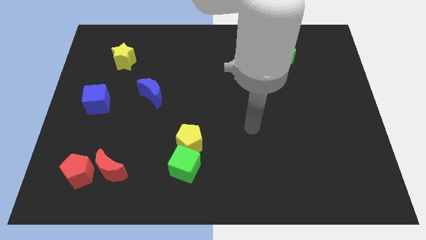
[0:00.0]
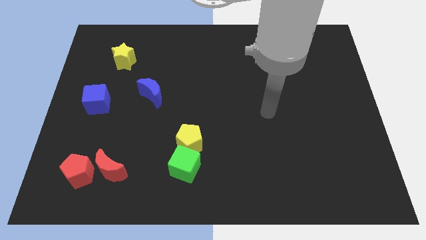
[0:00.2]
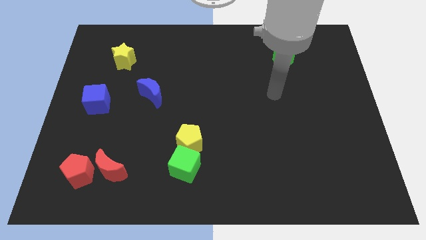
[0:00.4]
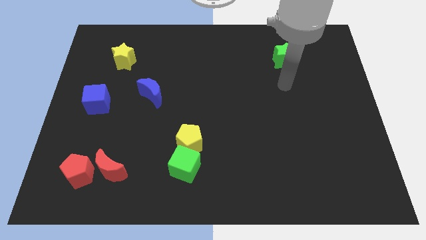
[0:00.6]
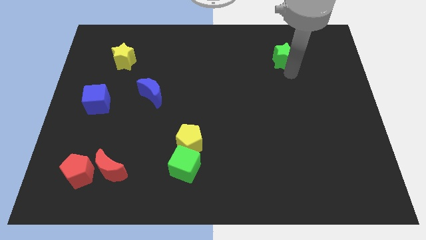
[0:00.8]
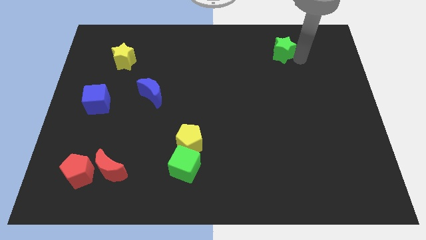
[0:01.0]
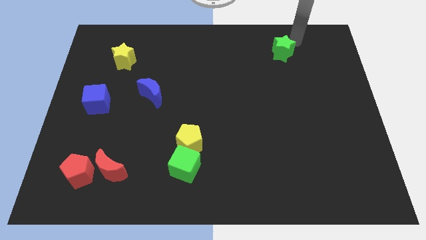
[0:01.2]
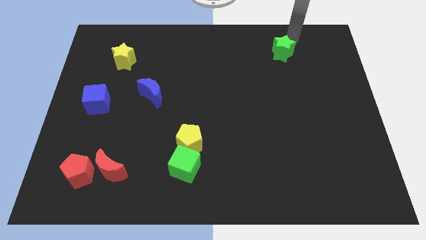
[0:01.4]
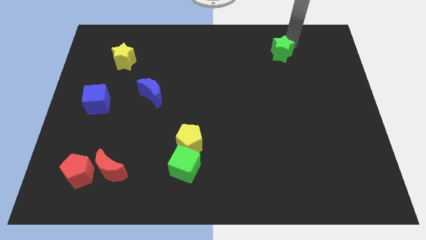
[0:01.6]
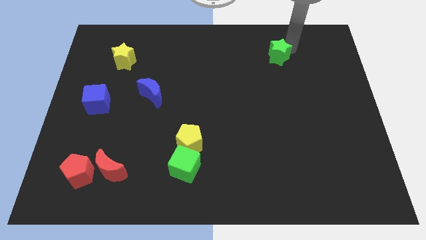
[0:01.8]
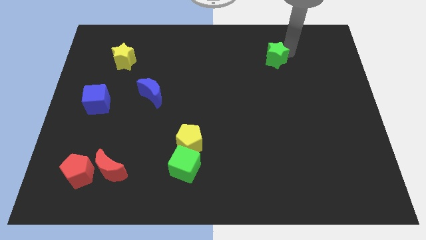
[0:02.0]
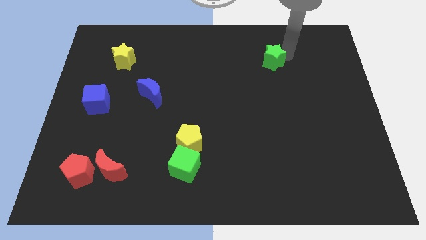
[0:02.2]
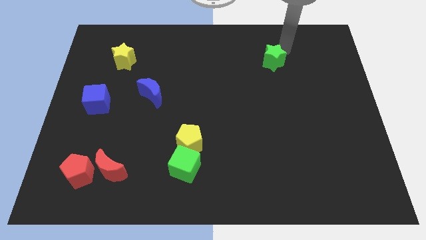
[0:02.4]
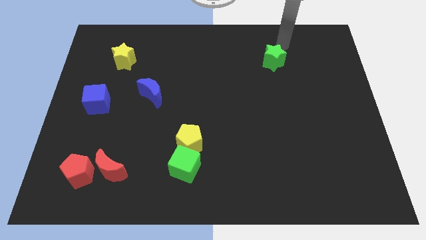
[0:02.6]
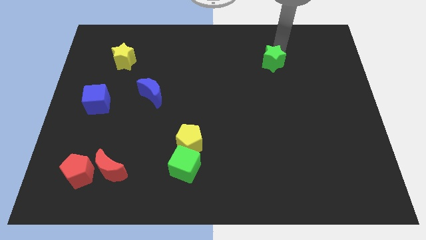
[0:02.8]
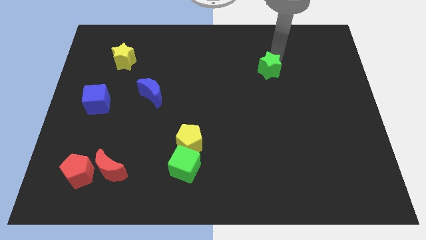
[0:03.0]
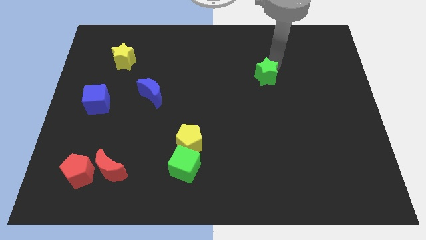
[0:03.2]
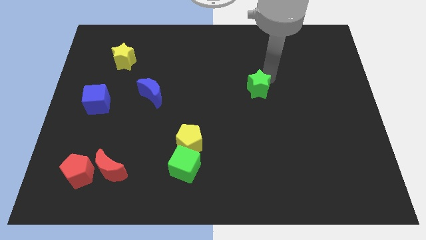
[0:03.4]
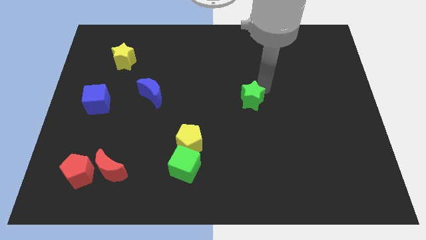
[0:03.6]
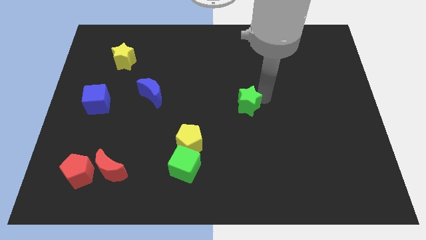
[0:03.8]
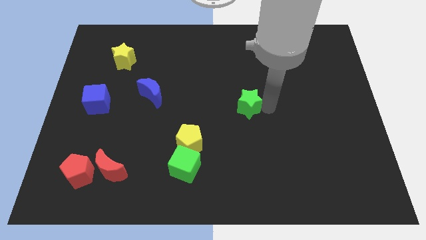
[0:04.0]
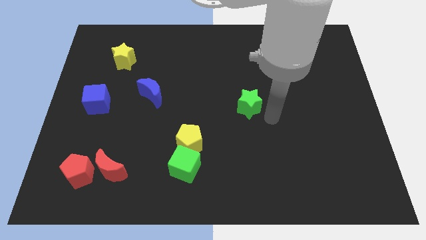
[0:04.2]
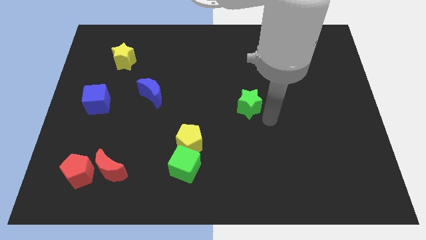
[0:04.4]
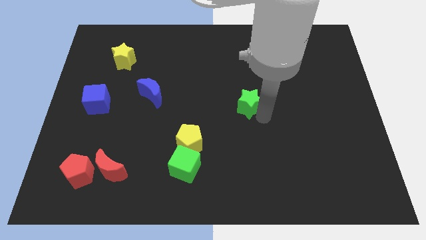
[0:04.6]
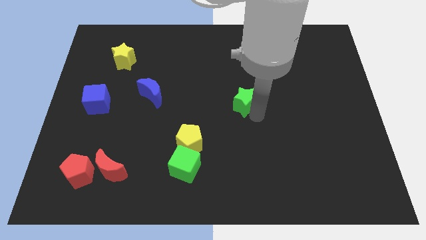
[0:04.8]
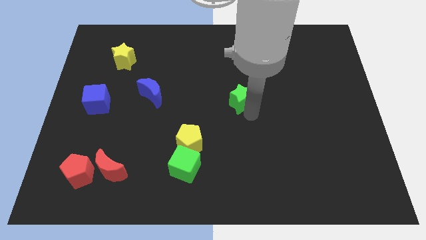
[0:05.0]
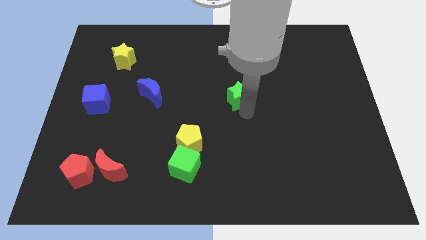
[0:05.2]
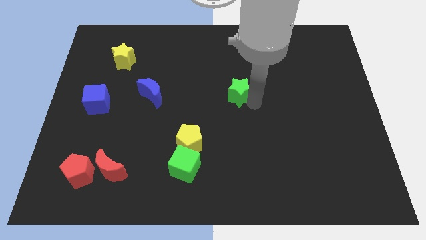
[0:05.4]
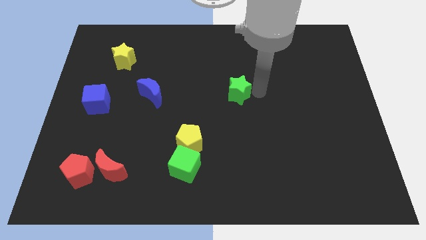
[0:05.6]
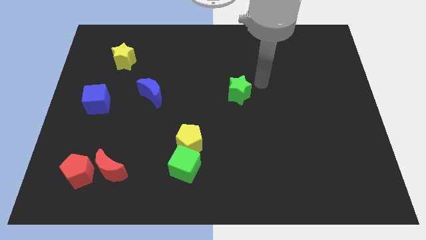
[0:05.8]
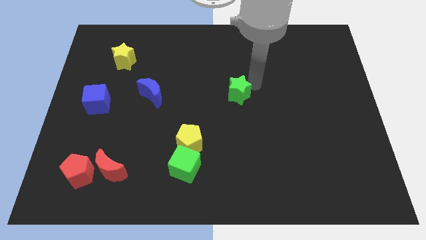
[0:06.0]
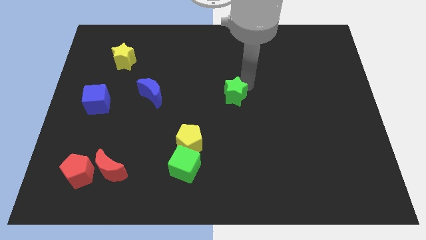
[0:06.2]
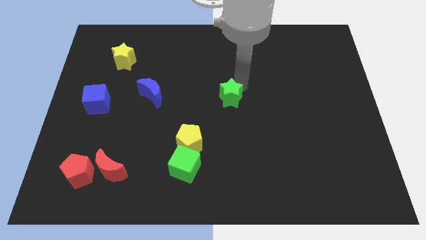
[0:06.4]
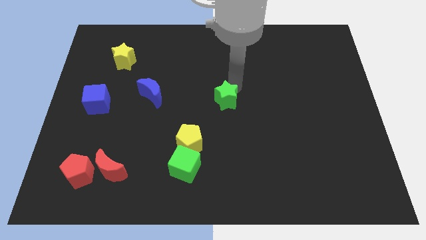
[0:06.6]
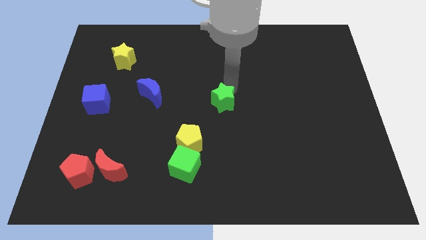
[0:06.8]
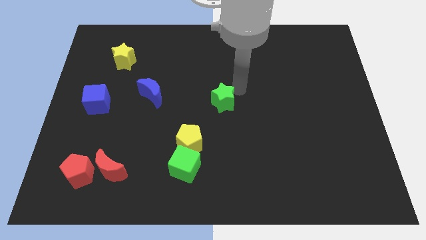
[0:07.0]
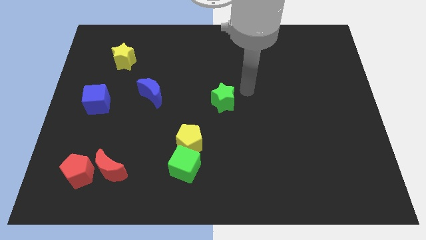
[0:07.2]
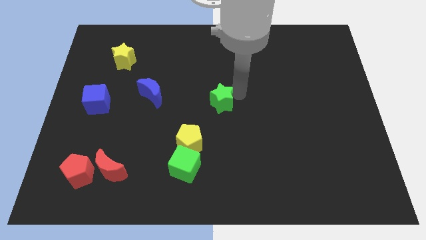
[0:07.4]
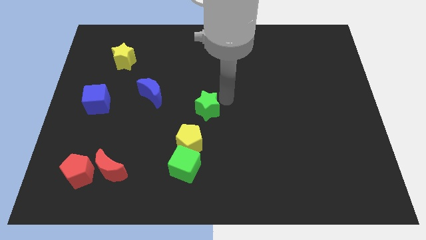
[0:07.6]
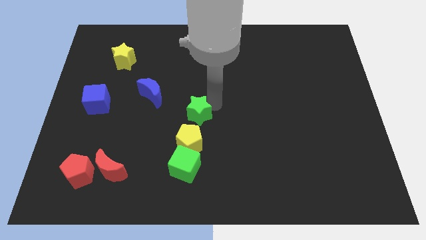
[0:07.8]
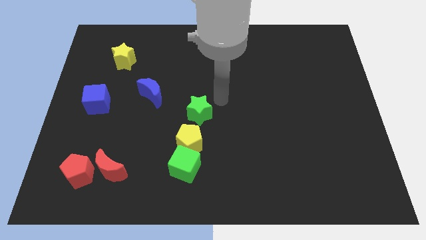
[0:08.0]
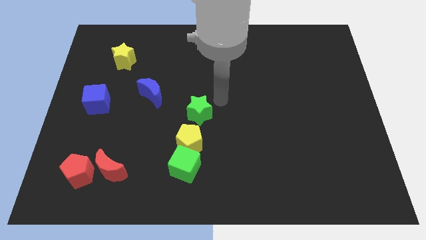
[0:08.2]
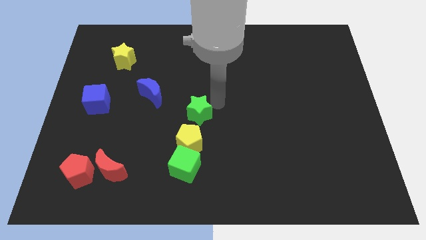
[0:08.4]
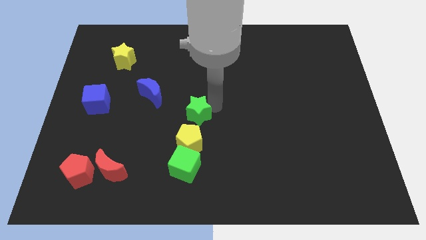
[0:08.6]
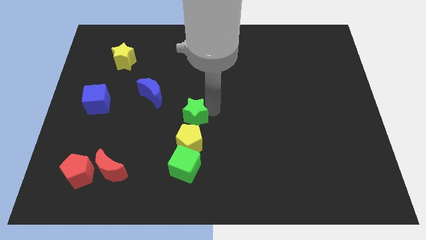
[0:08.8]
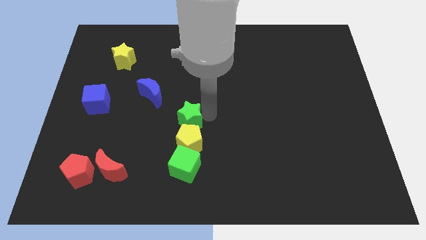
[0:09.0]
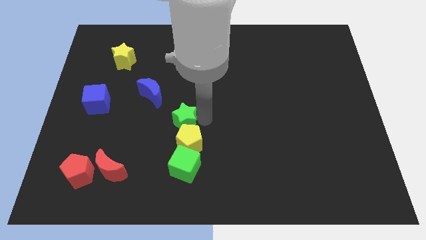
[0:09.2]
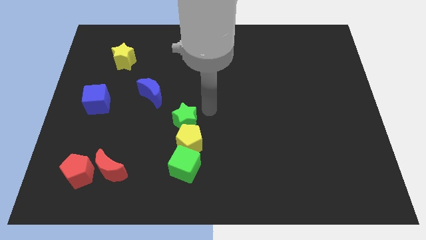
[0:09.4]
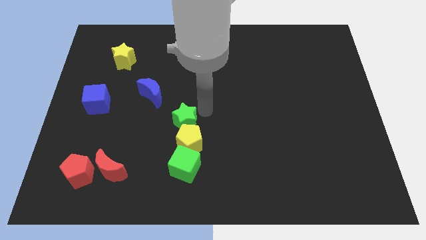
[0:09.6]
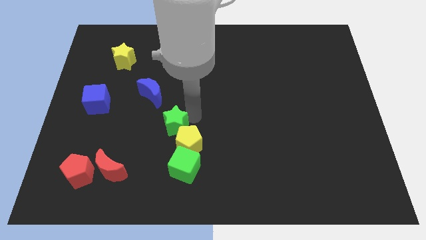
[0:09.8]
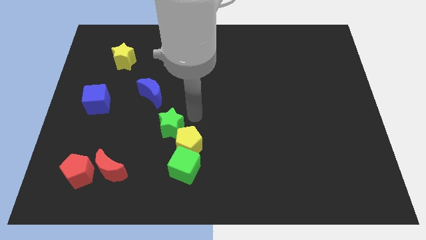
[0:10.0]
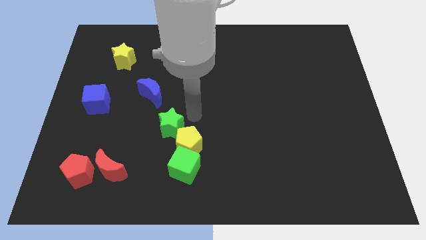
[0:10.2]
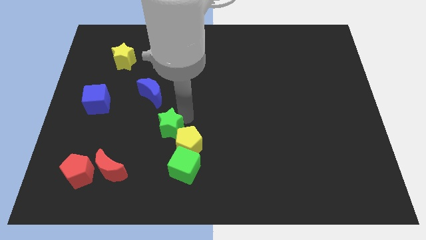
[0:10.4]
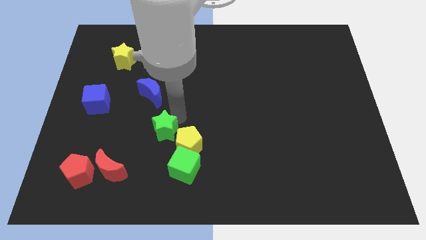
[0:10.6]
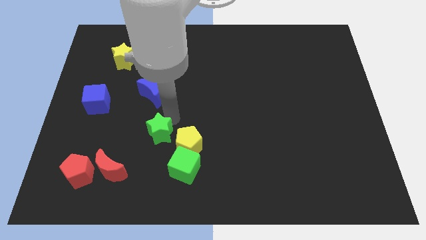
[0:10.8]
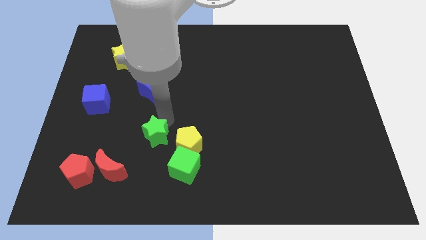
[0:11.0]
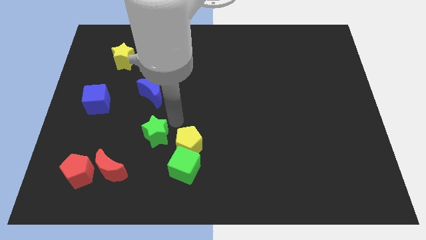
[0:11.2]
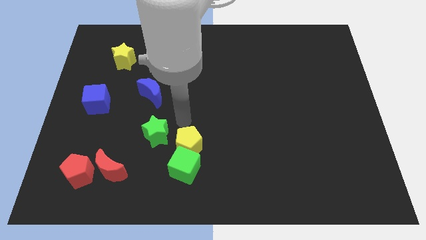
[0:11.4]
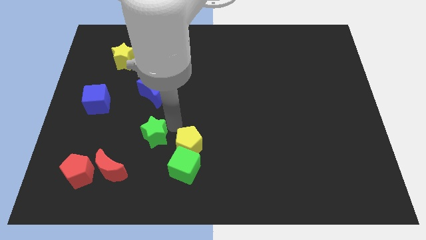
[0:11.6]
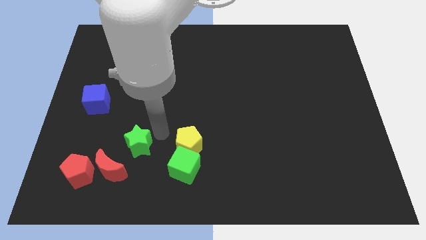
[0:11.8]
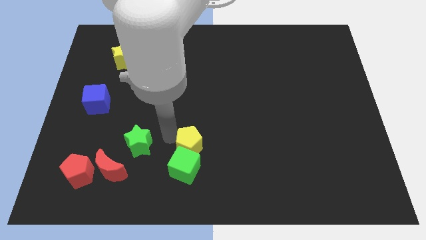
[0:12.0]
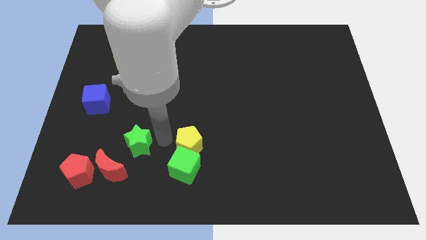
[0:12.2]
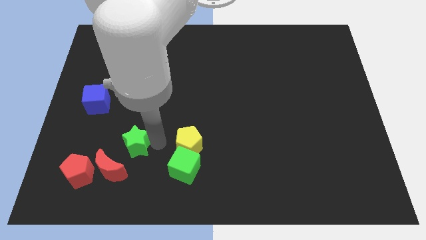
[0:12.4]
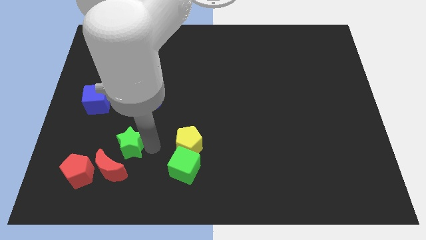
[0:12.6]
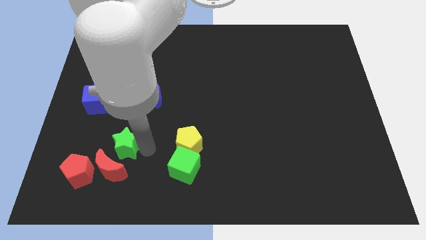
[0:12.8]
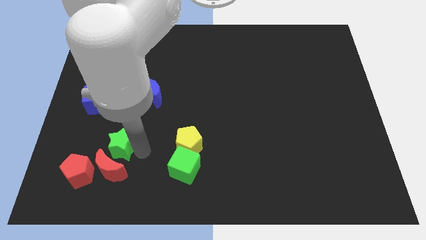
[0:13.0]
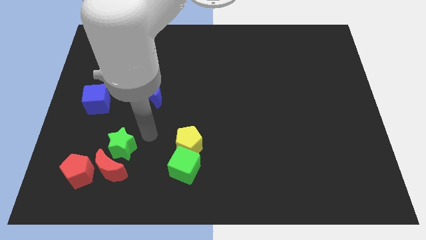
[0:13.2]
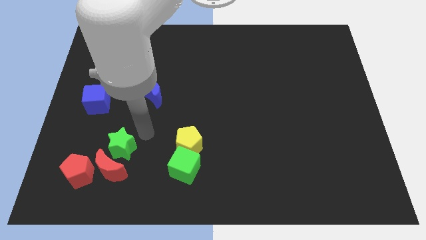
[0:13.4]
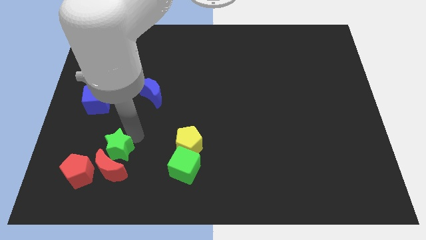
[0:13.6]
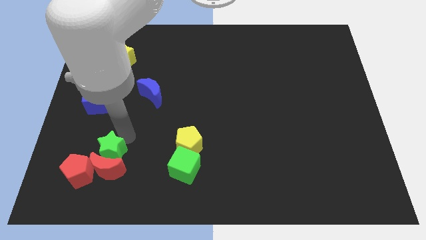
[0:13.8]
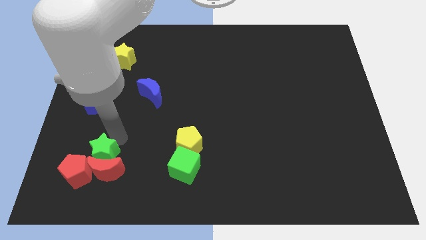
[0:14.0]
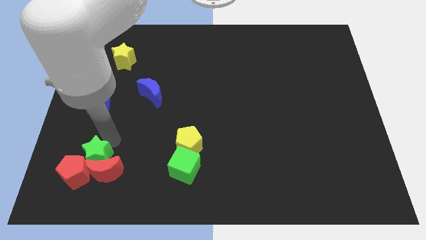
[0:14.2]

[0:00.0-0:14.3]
slide the green star to the red pentagon
